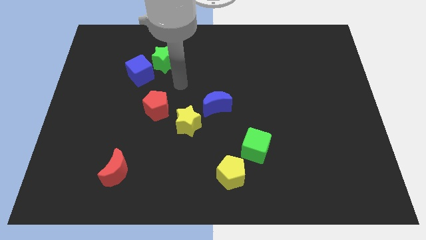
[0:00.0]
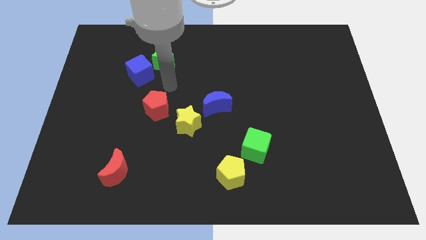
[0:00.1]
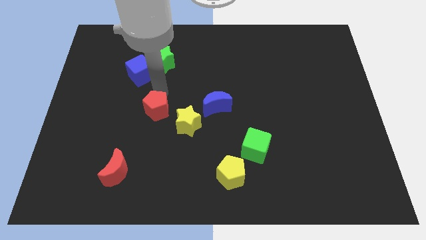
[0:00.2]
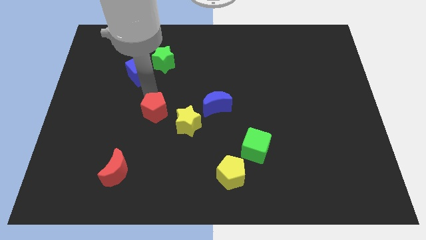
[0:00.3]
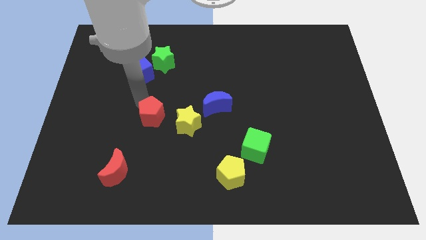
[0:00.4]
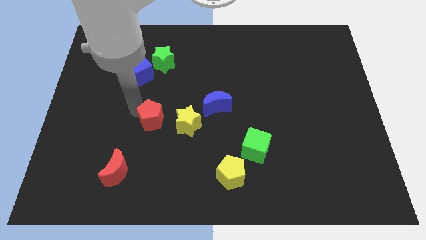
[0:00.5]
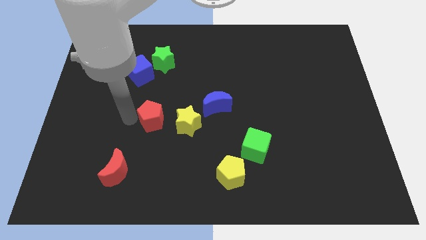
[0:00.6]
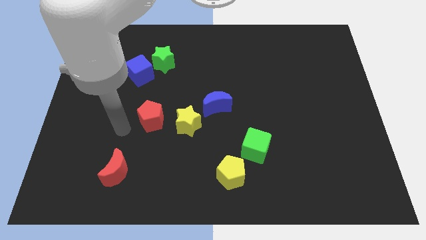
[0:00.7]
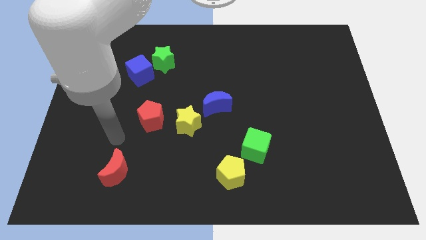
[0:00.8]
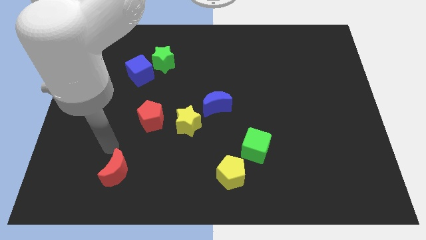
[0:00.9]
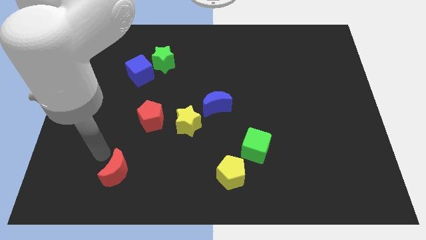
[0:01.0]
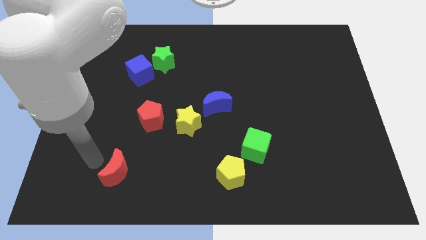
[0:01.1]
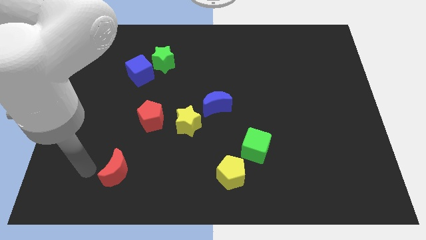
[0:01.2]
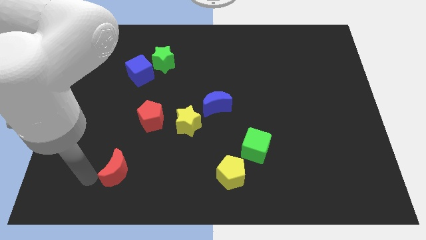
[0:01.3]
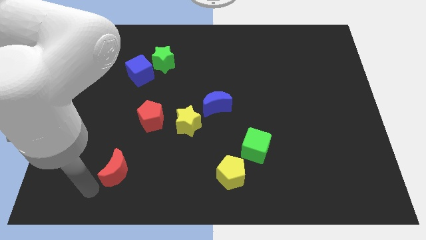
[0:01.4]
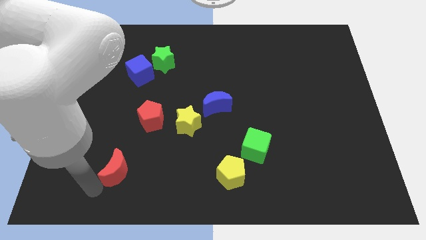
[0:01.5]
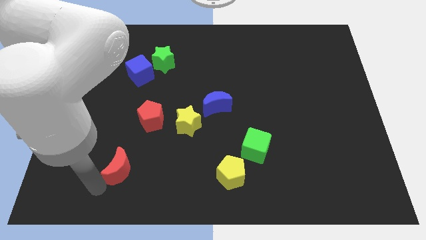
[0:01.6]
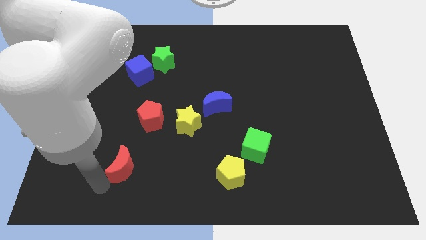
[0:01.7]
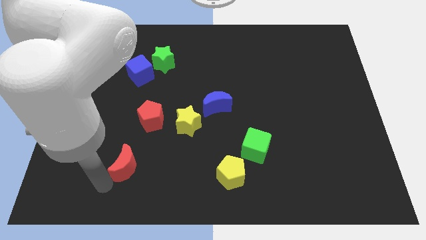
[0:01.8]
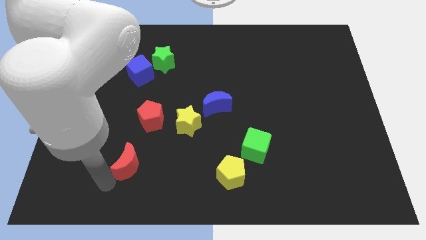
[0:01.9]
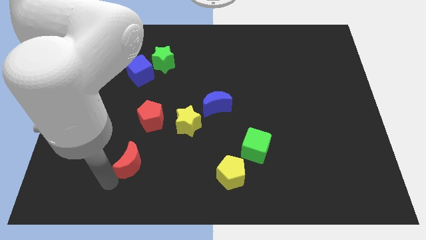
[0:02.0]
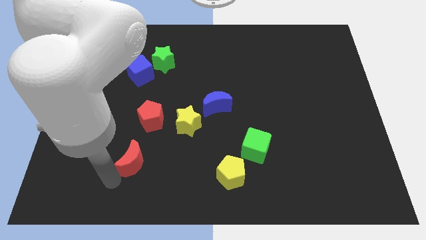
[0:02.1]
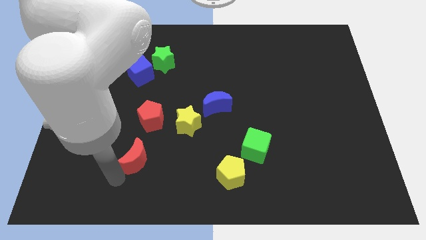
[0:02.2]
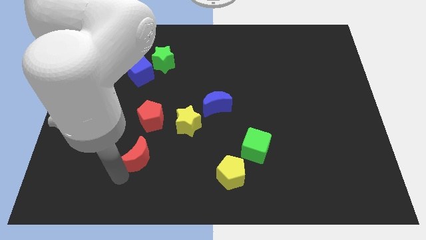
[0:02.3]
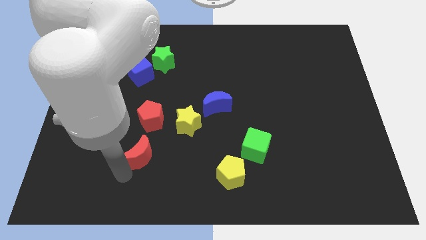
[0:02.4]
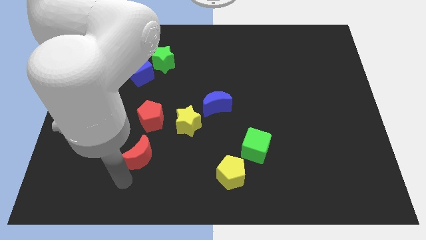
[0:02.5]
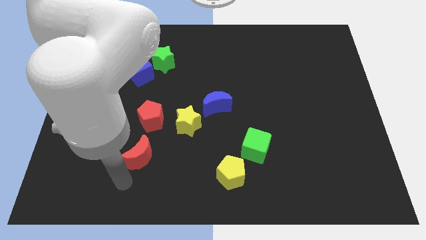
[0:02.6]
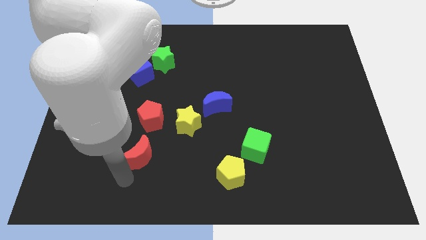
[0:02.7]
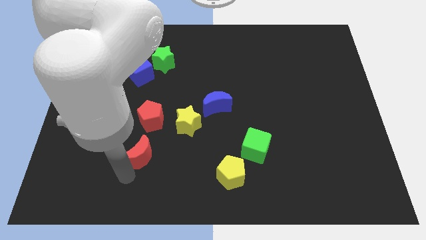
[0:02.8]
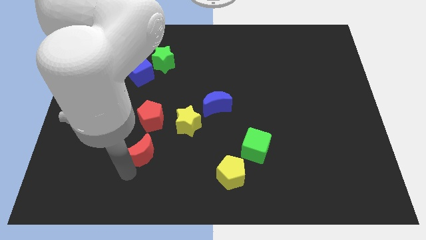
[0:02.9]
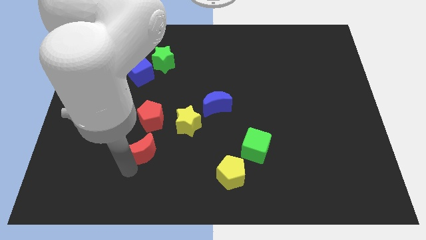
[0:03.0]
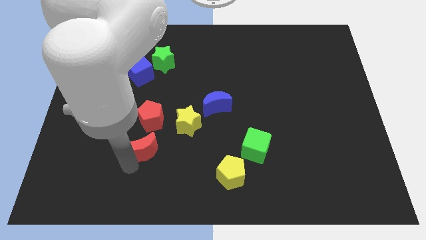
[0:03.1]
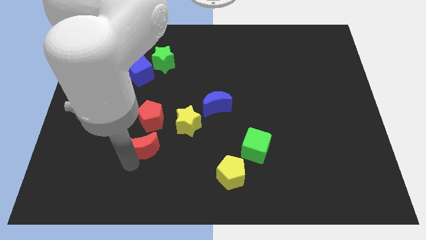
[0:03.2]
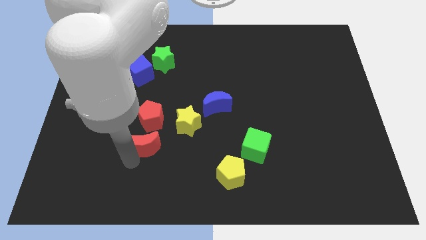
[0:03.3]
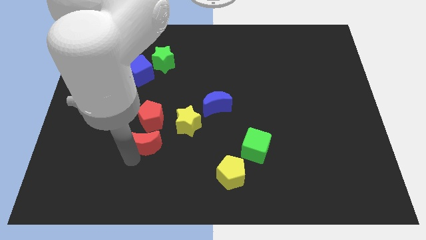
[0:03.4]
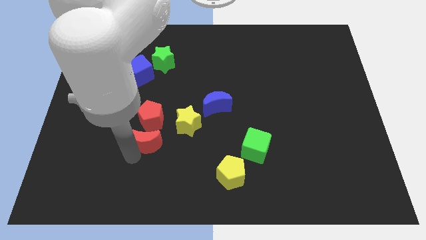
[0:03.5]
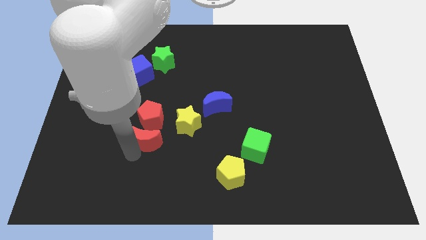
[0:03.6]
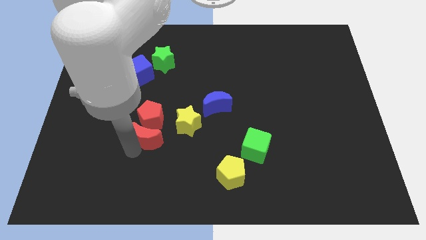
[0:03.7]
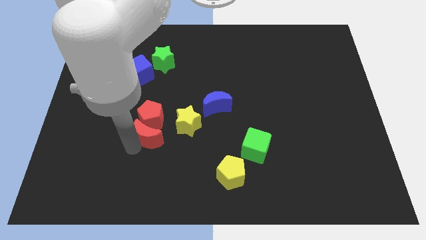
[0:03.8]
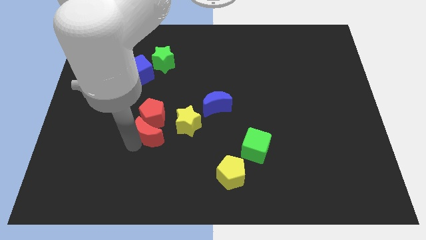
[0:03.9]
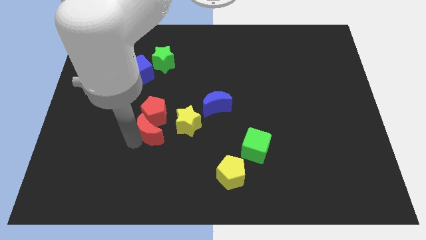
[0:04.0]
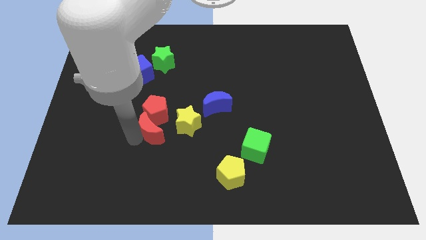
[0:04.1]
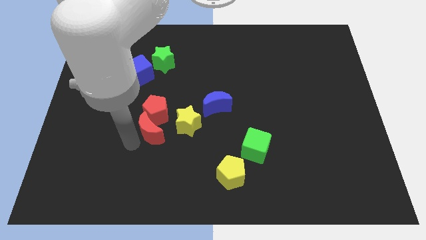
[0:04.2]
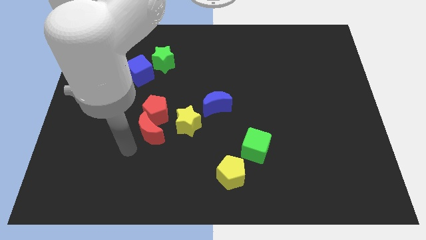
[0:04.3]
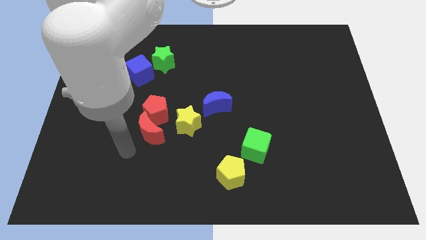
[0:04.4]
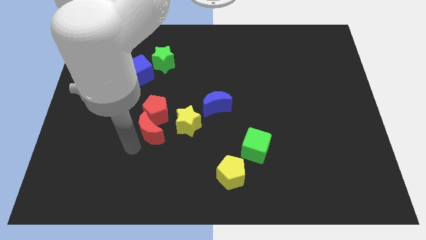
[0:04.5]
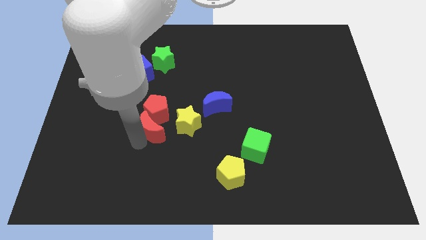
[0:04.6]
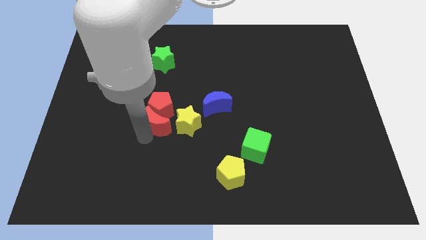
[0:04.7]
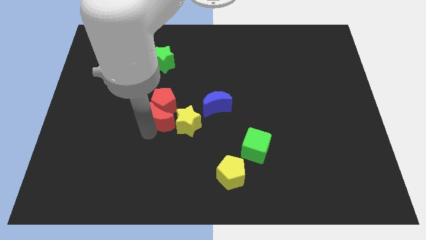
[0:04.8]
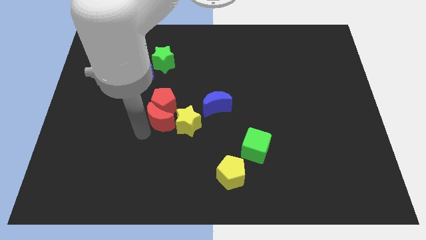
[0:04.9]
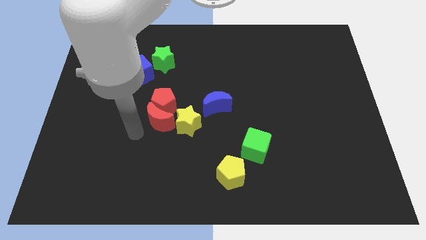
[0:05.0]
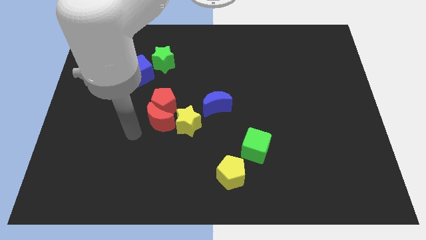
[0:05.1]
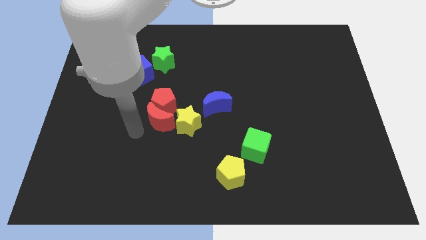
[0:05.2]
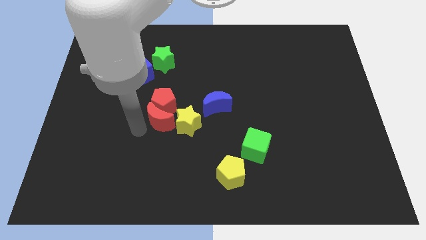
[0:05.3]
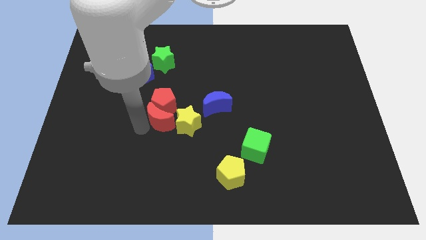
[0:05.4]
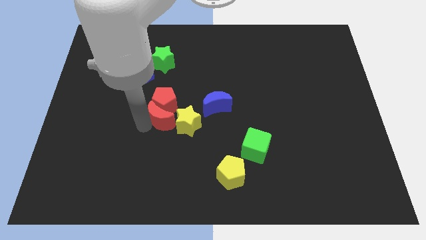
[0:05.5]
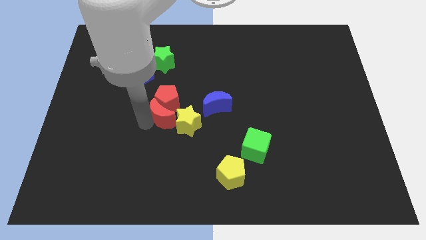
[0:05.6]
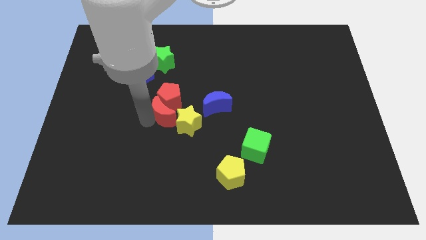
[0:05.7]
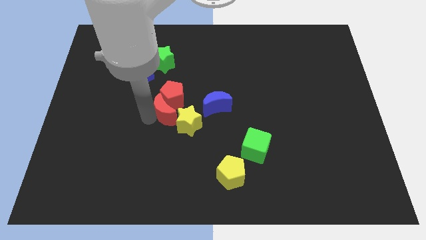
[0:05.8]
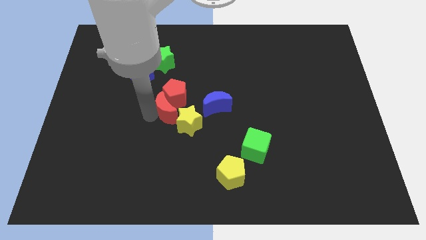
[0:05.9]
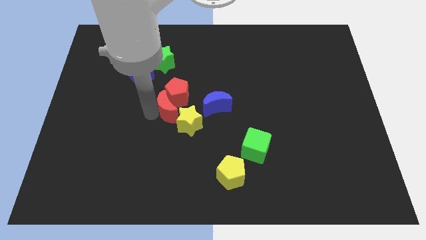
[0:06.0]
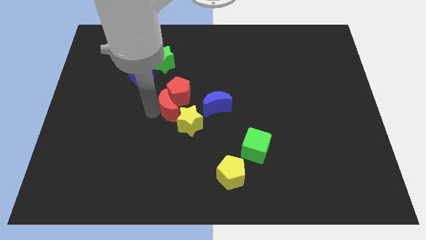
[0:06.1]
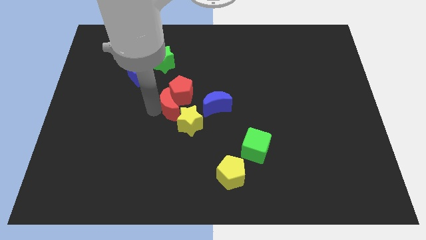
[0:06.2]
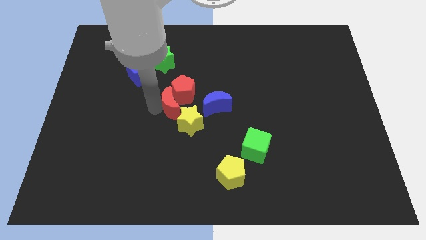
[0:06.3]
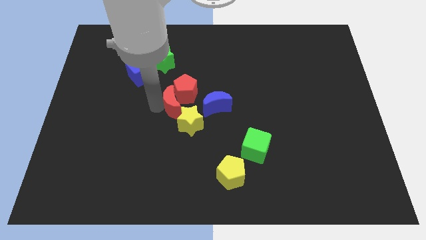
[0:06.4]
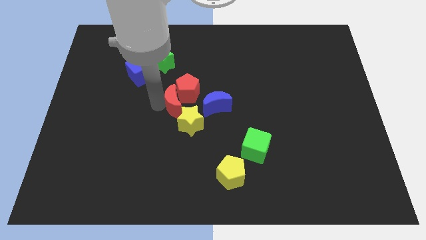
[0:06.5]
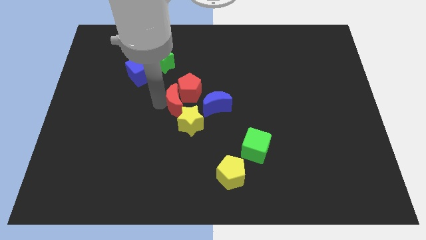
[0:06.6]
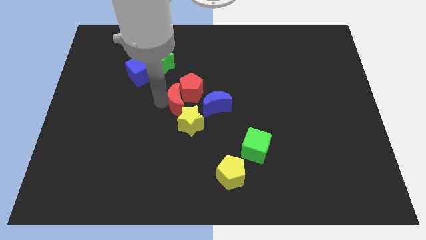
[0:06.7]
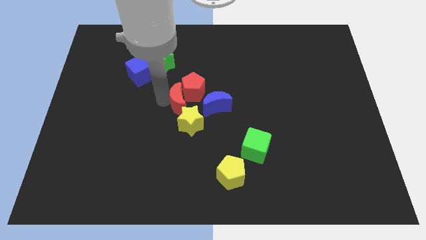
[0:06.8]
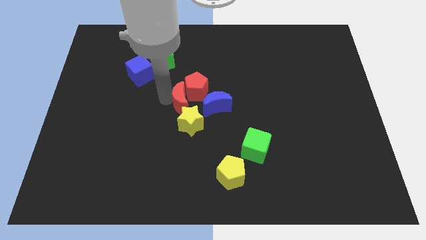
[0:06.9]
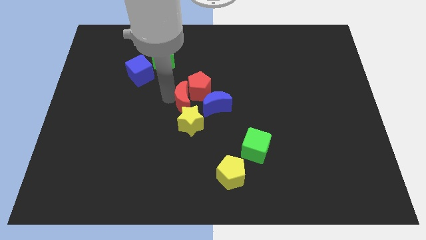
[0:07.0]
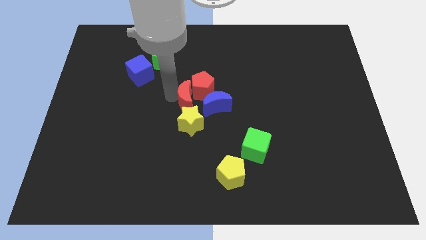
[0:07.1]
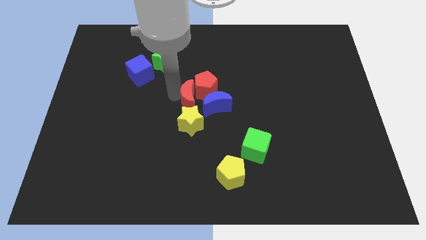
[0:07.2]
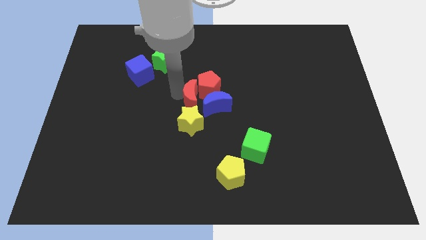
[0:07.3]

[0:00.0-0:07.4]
move the red moon to the blue moon
